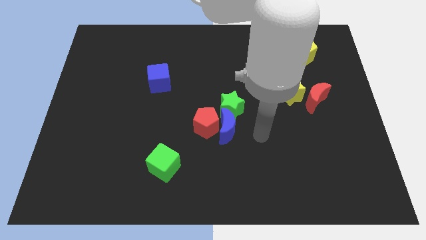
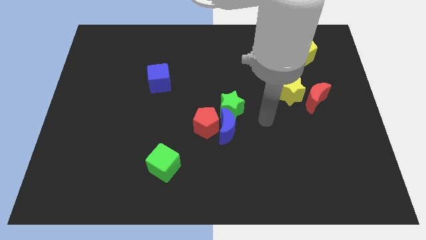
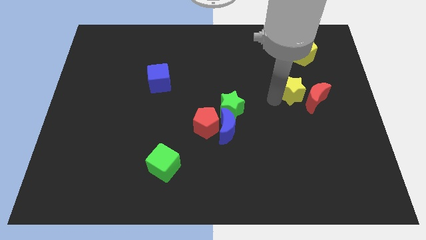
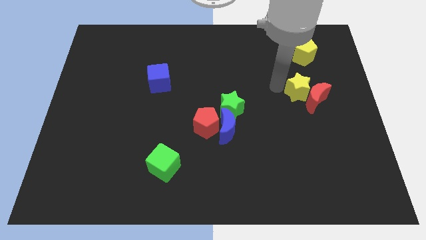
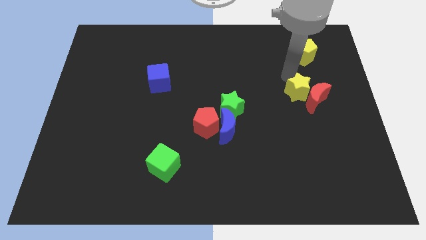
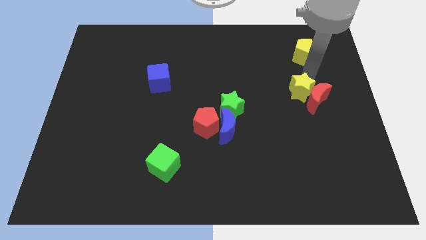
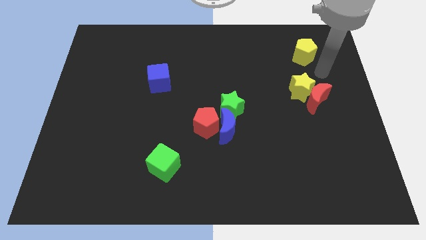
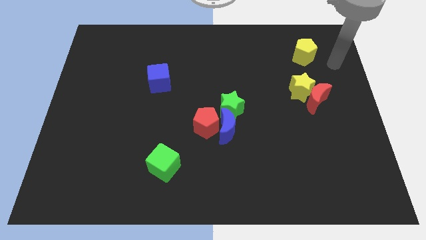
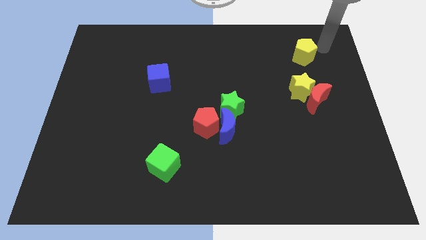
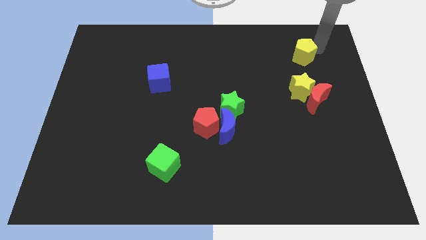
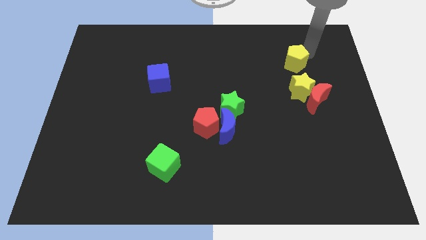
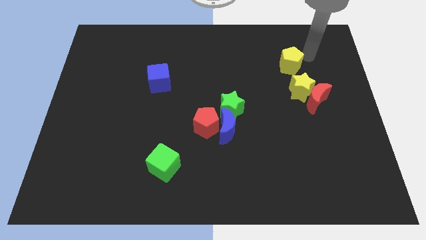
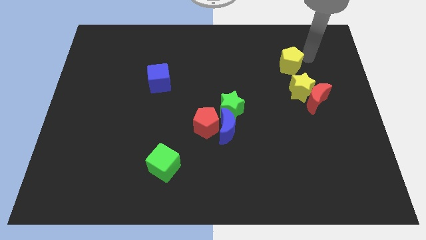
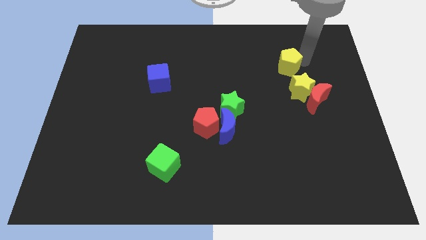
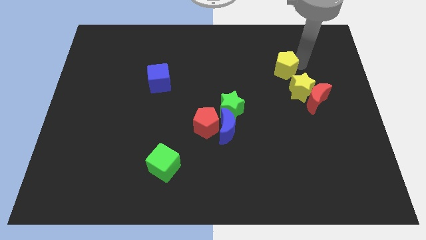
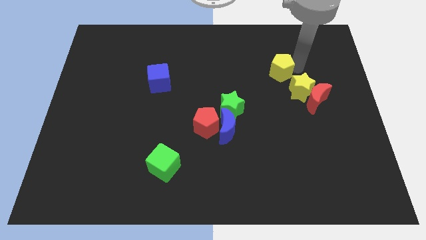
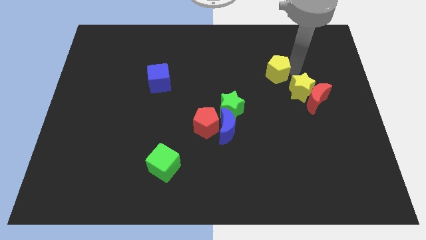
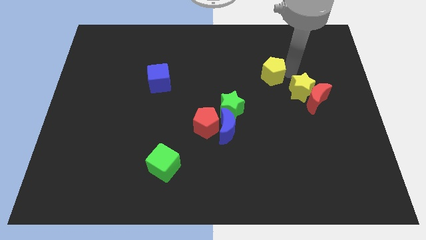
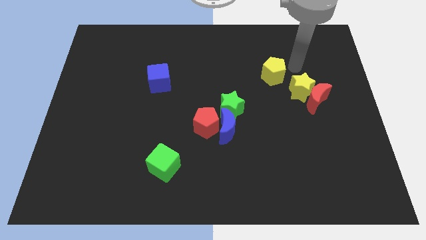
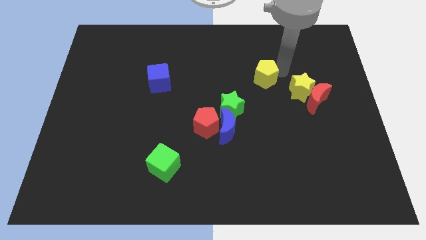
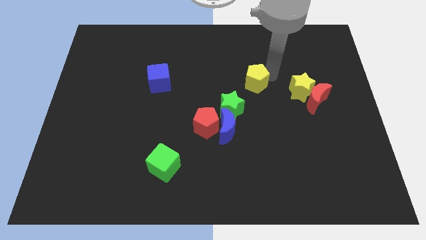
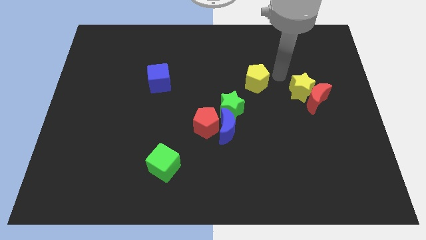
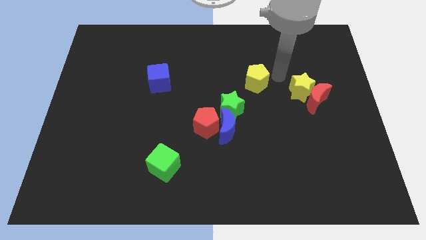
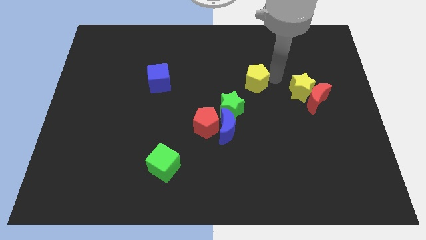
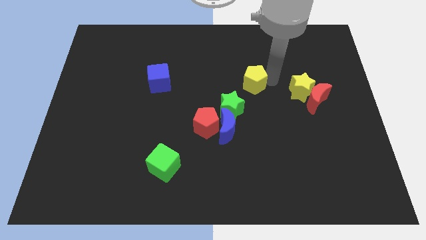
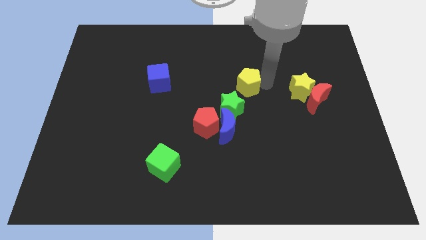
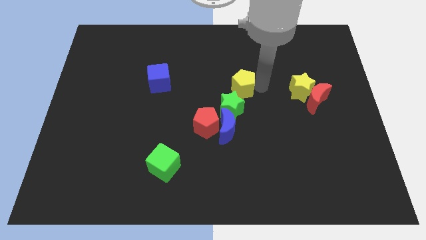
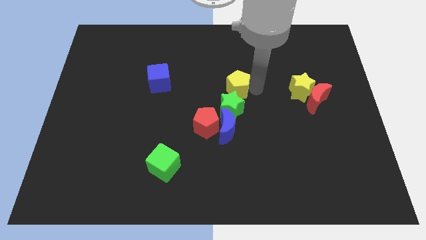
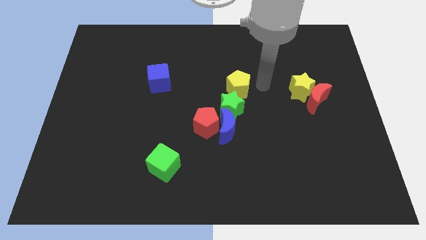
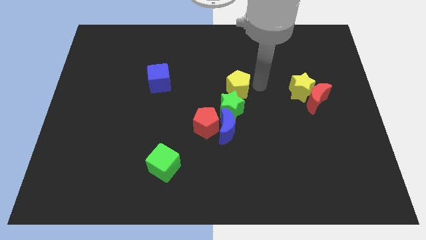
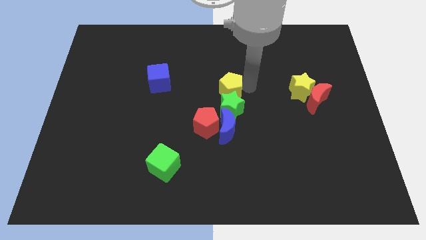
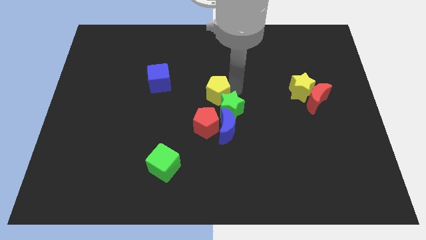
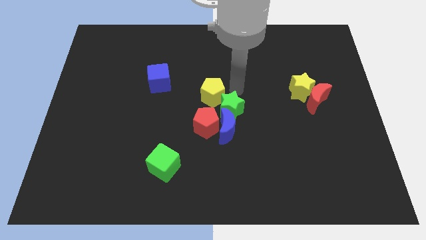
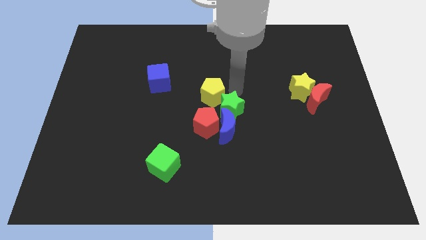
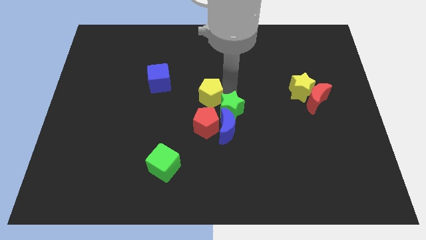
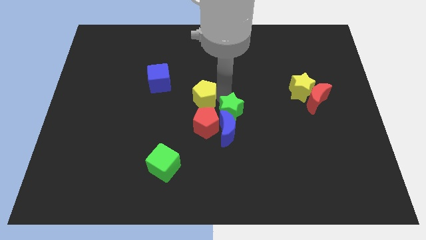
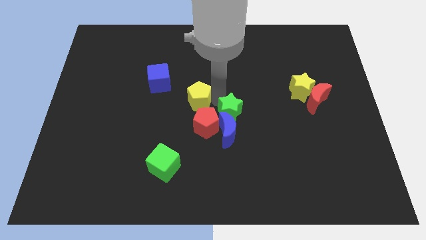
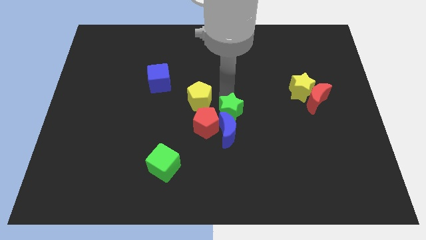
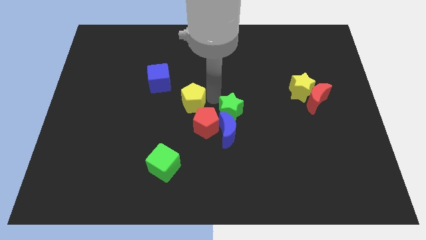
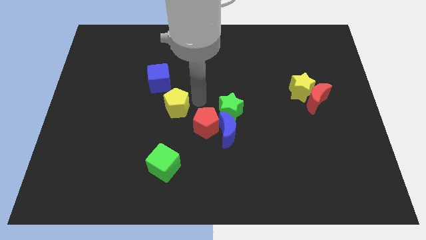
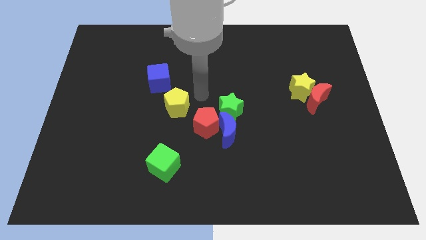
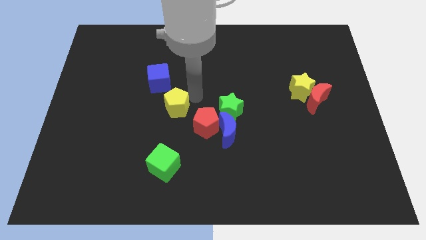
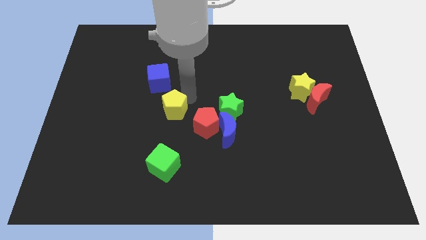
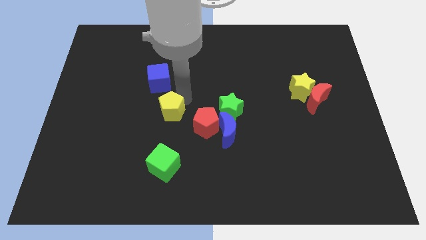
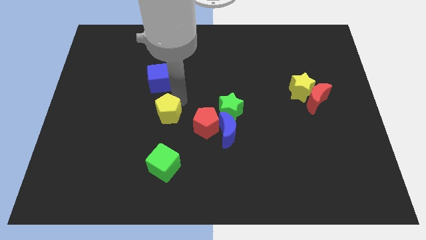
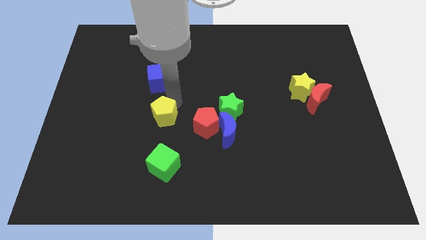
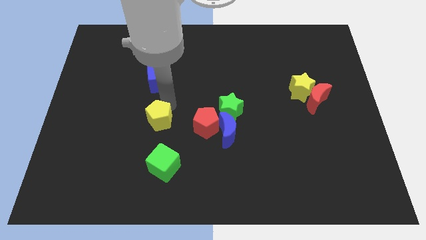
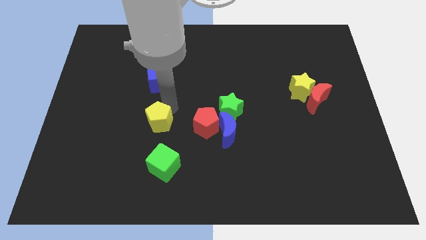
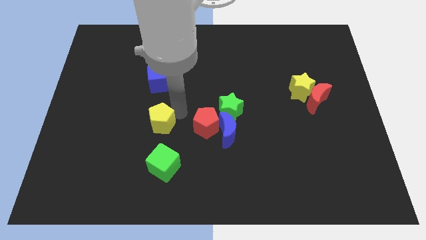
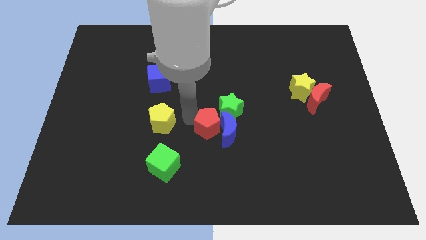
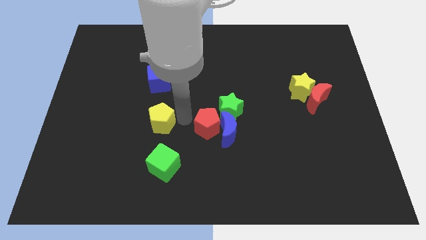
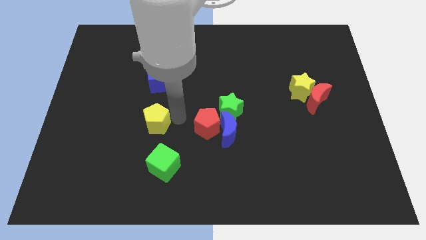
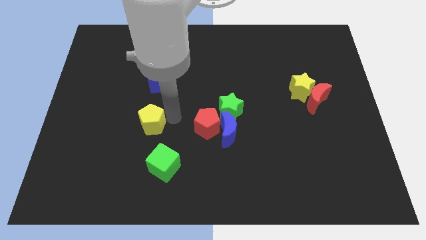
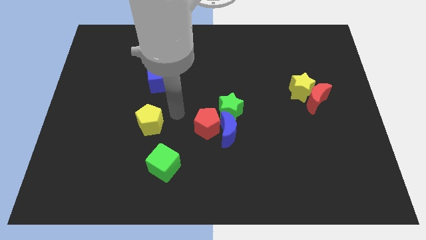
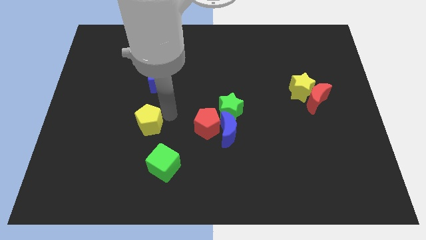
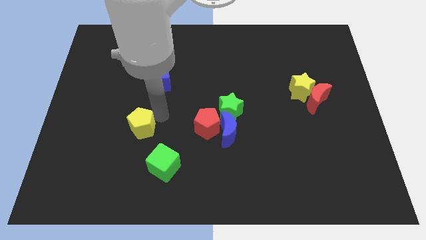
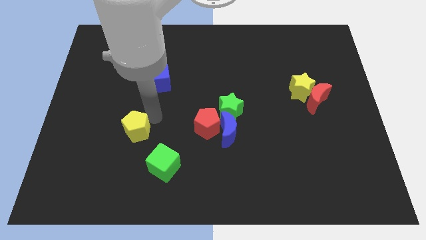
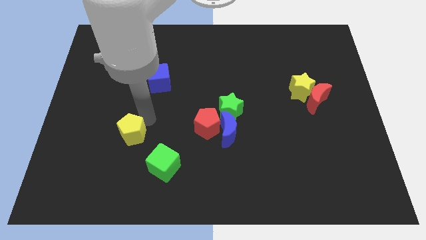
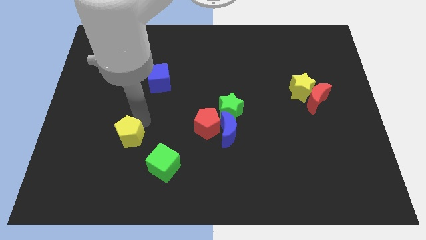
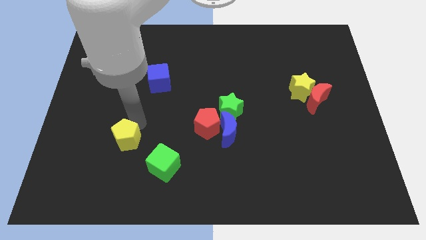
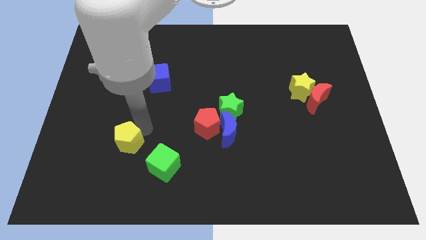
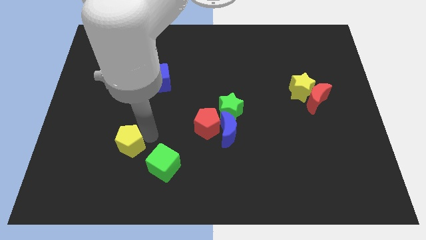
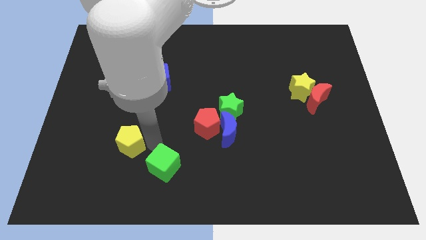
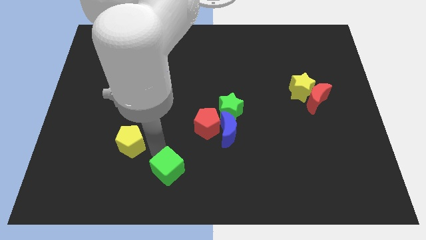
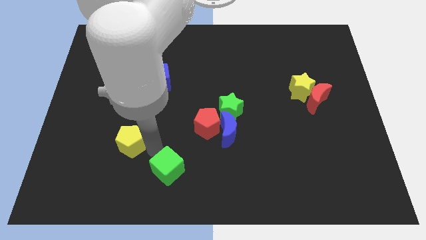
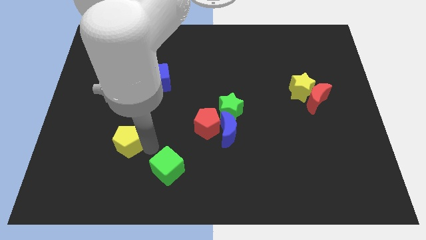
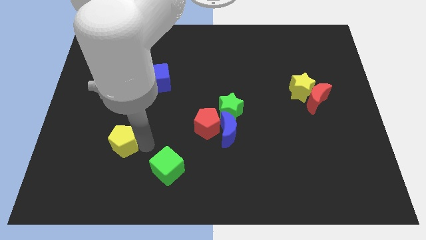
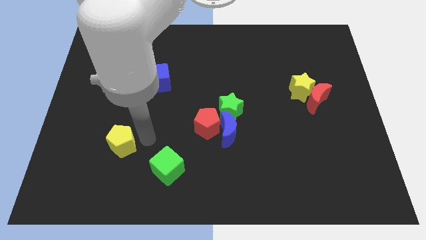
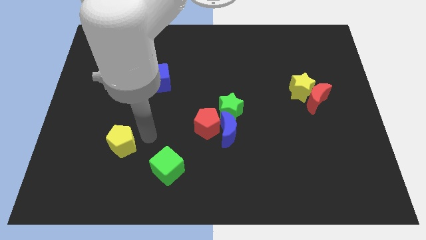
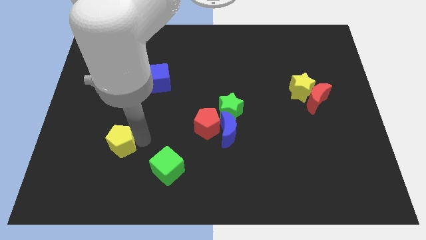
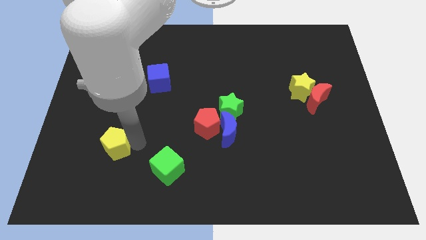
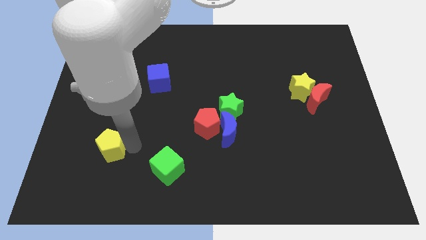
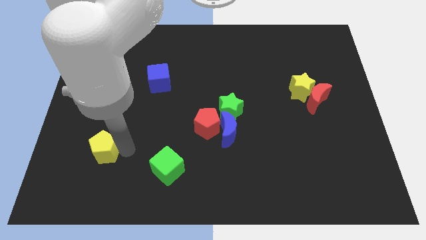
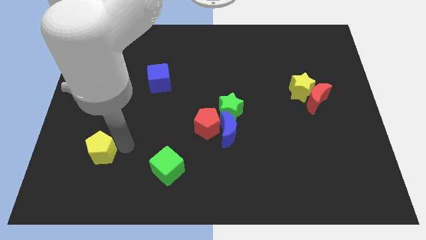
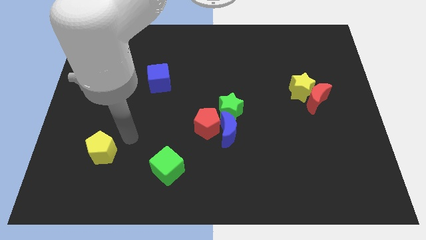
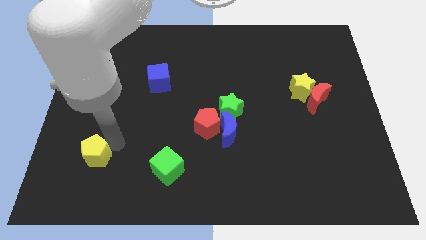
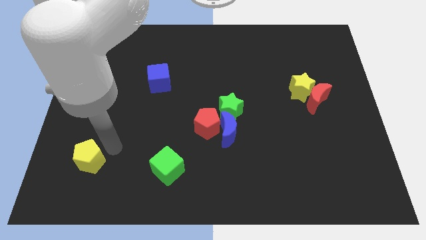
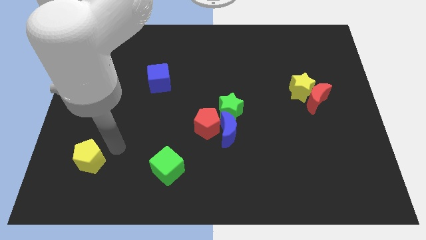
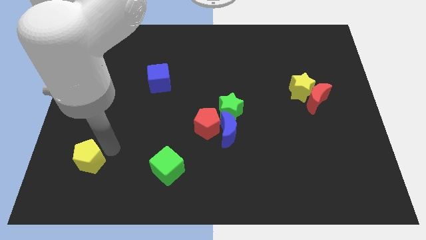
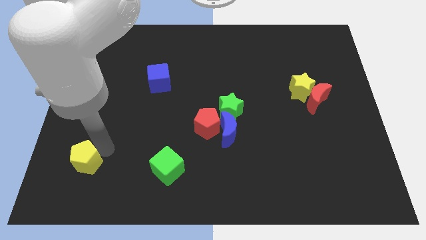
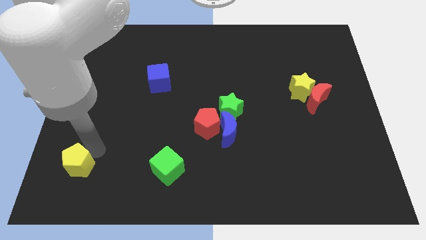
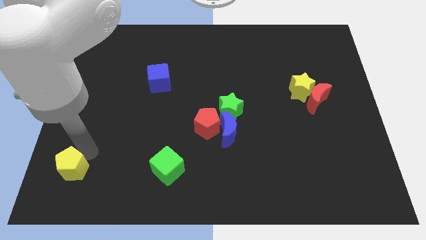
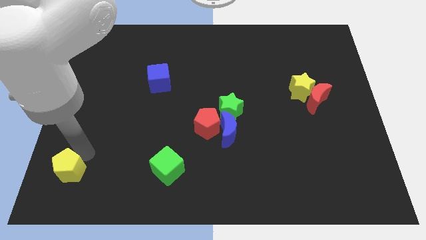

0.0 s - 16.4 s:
move the yellow pentagon to the bottom left of the board
